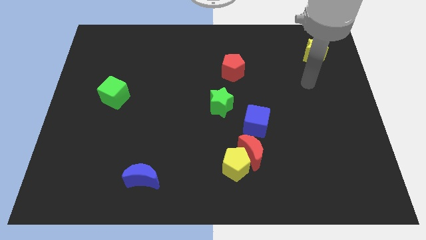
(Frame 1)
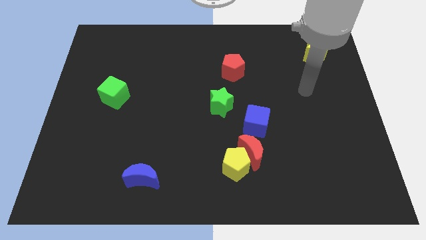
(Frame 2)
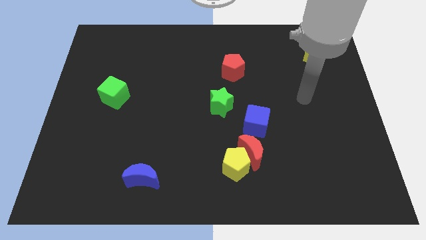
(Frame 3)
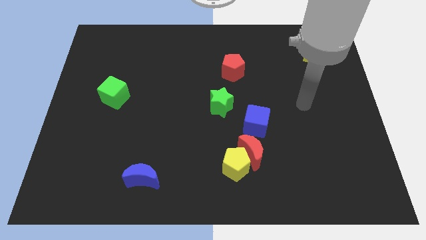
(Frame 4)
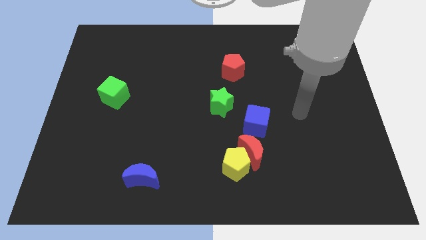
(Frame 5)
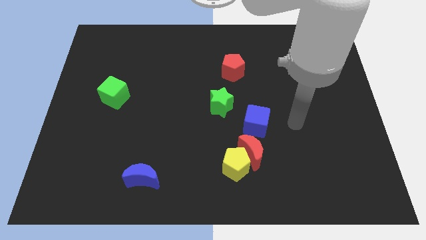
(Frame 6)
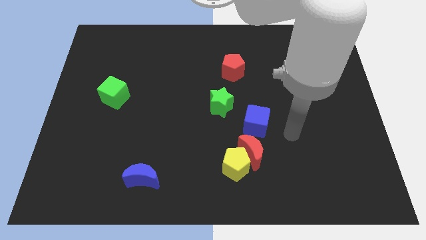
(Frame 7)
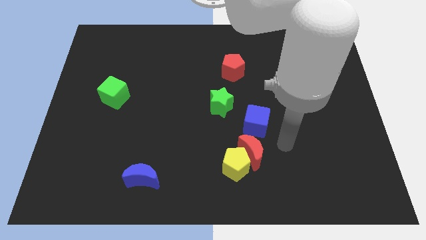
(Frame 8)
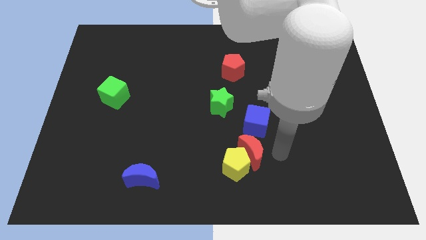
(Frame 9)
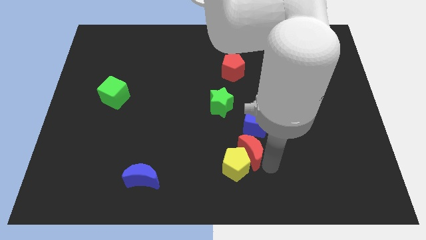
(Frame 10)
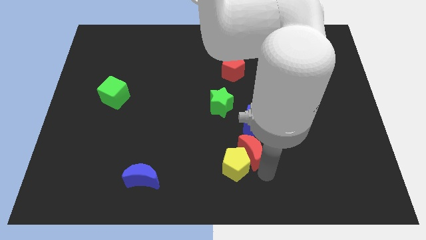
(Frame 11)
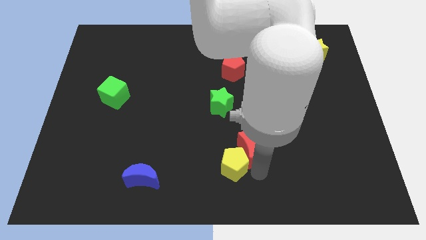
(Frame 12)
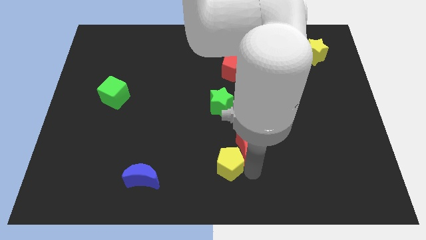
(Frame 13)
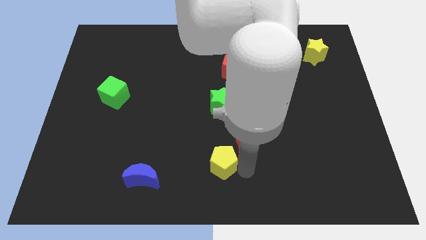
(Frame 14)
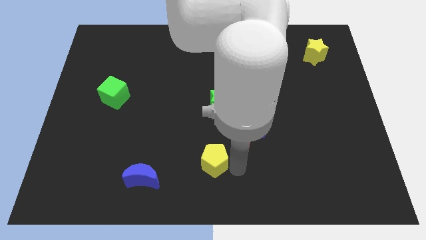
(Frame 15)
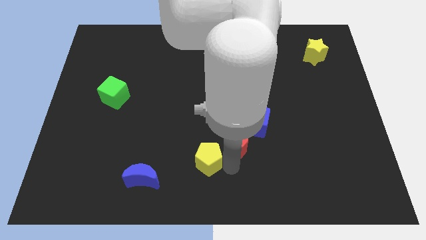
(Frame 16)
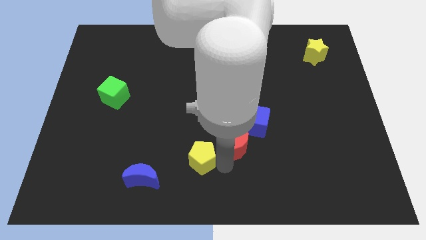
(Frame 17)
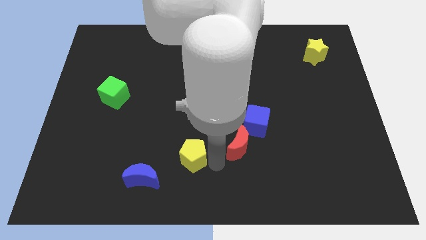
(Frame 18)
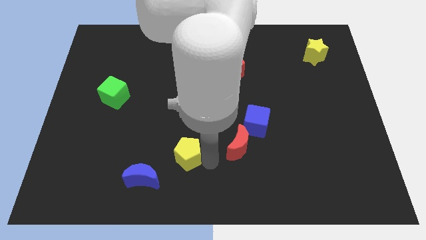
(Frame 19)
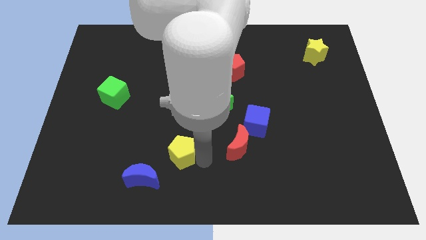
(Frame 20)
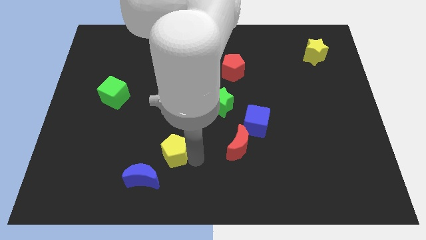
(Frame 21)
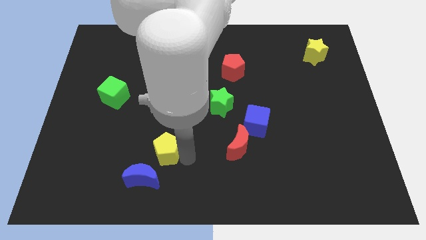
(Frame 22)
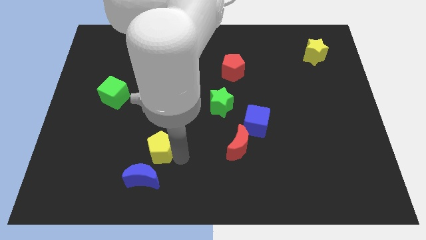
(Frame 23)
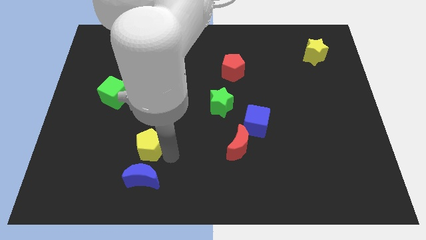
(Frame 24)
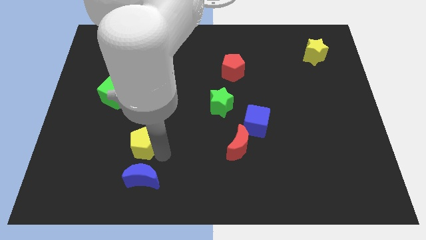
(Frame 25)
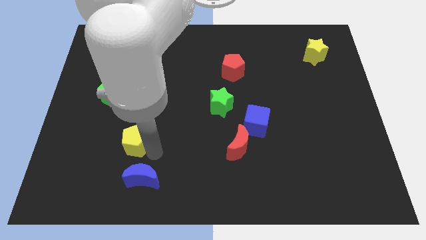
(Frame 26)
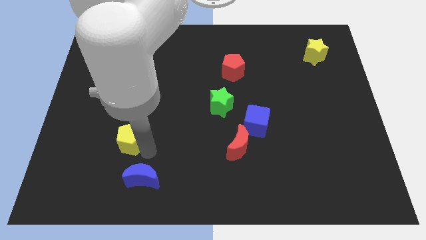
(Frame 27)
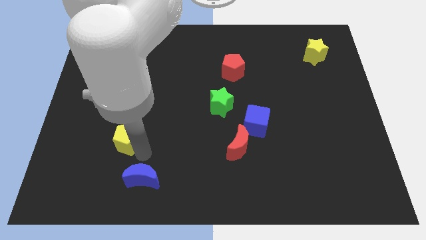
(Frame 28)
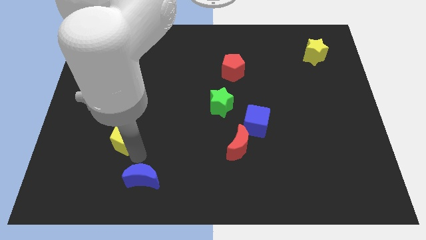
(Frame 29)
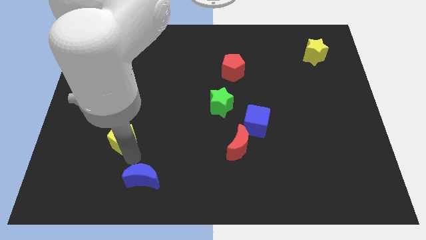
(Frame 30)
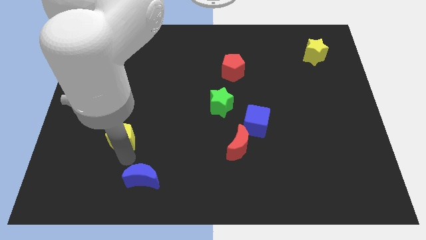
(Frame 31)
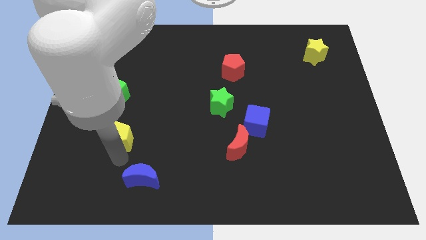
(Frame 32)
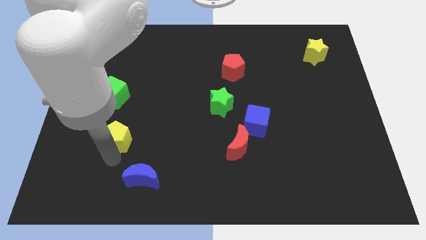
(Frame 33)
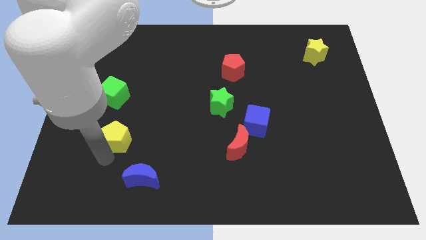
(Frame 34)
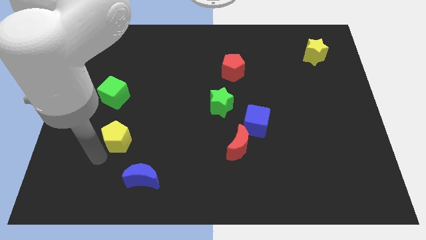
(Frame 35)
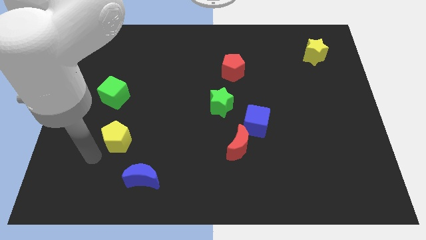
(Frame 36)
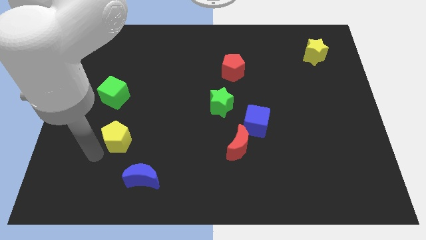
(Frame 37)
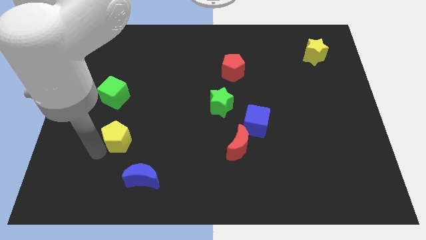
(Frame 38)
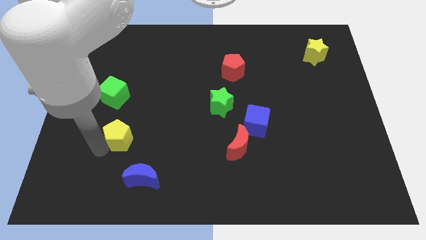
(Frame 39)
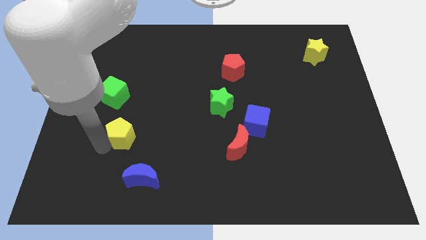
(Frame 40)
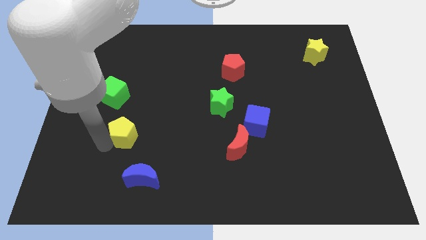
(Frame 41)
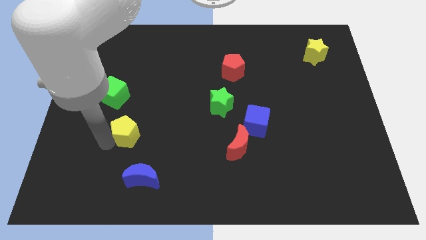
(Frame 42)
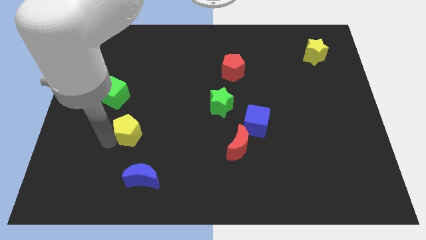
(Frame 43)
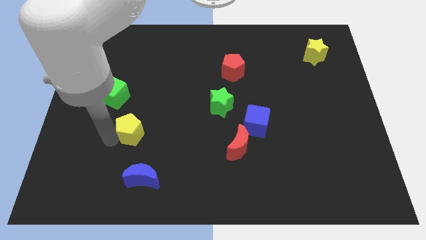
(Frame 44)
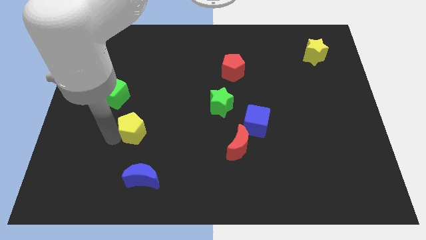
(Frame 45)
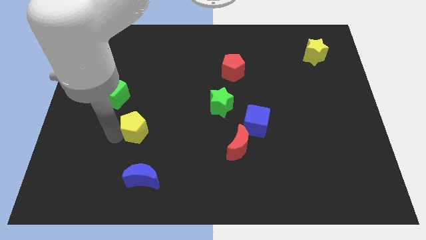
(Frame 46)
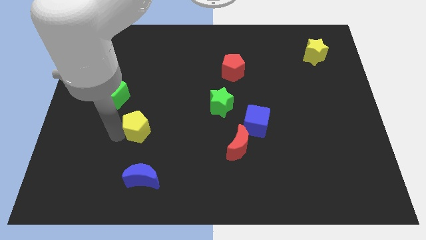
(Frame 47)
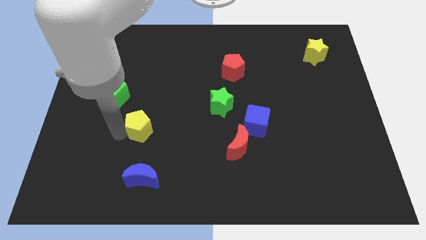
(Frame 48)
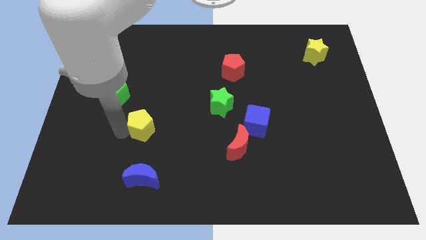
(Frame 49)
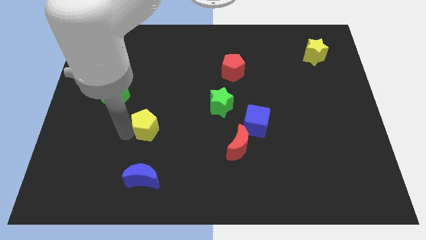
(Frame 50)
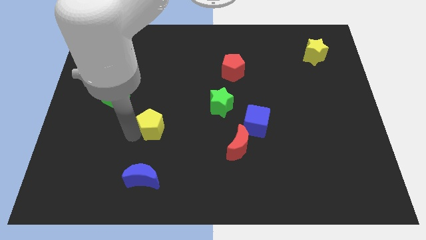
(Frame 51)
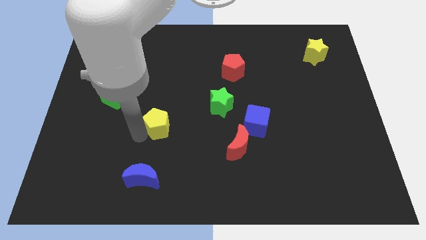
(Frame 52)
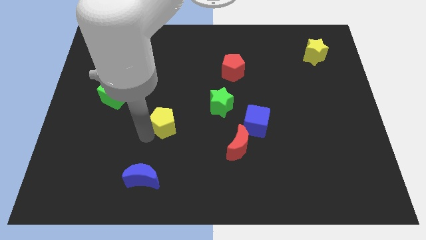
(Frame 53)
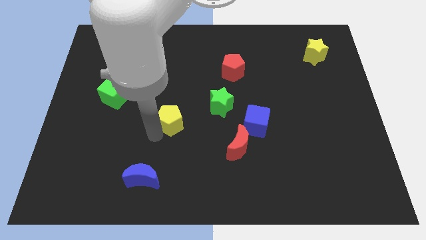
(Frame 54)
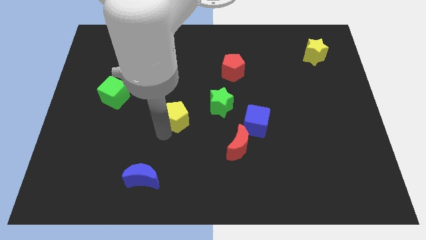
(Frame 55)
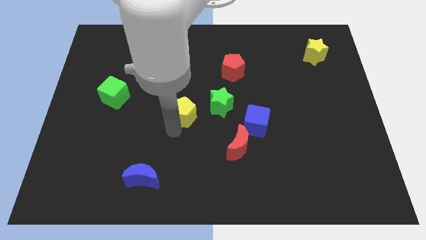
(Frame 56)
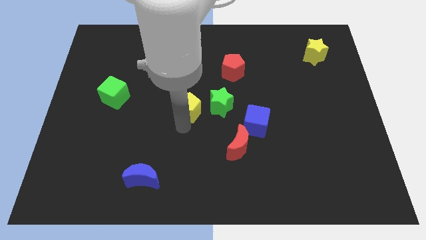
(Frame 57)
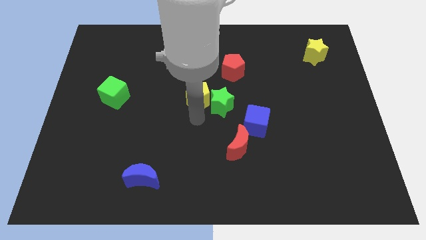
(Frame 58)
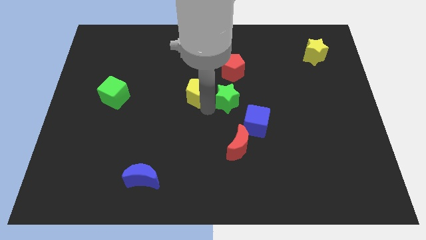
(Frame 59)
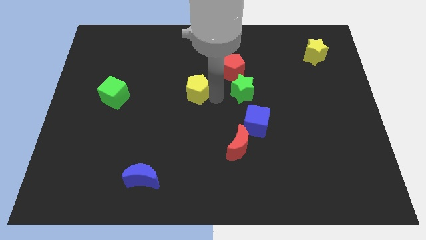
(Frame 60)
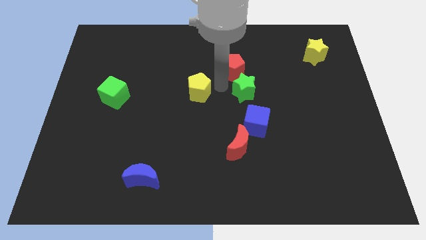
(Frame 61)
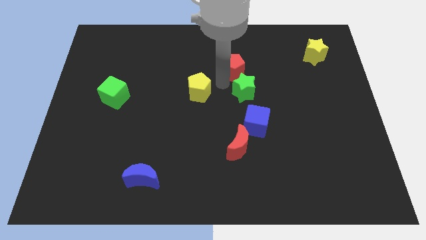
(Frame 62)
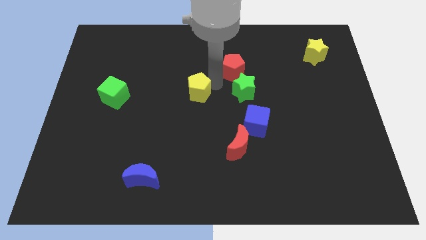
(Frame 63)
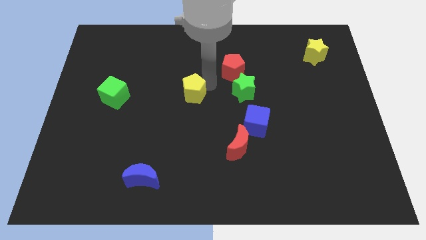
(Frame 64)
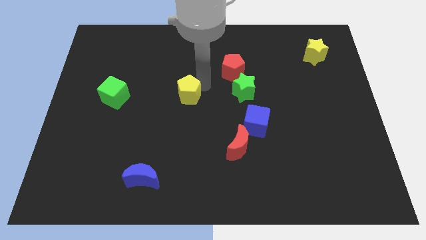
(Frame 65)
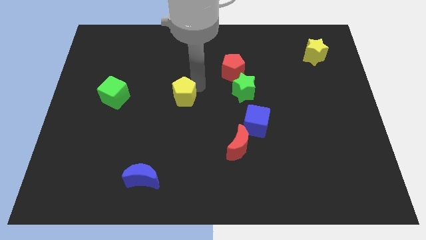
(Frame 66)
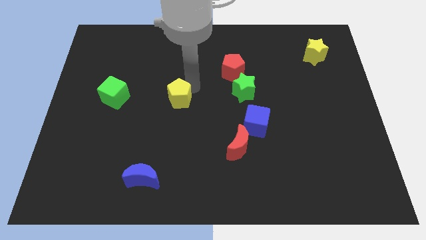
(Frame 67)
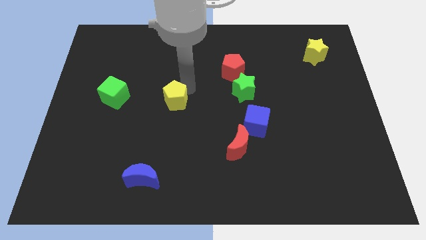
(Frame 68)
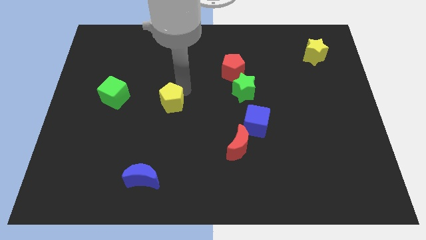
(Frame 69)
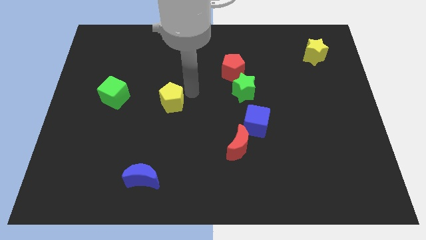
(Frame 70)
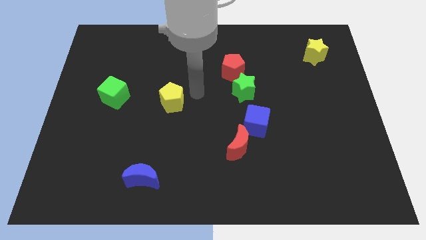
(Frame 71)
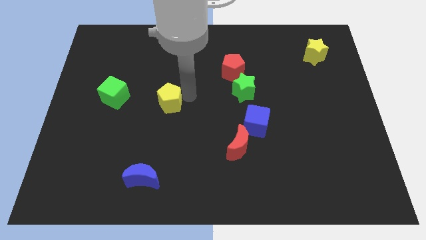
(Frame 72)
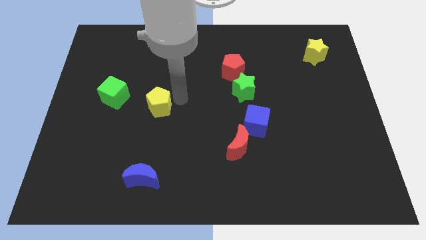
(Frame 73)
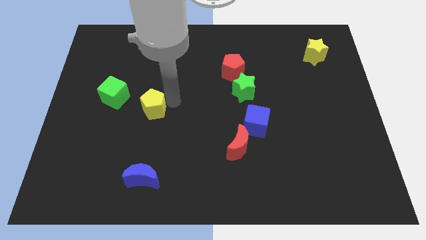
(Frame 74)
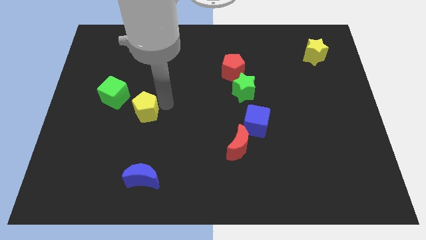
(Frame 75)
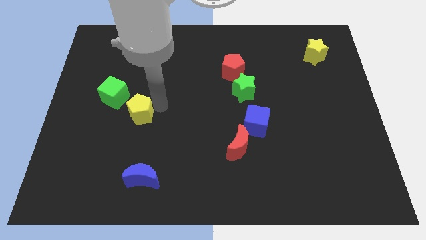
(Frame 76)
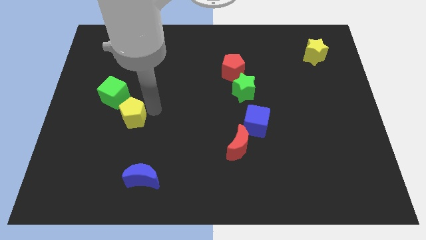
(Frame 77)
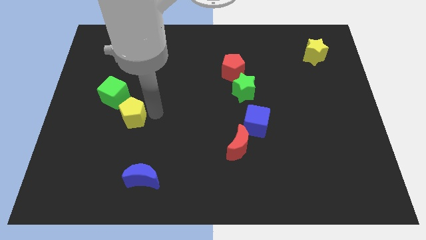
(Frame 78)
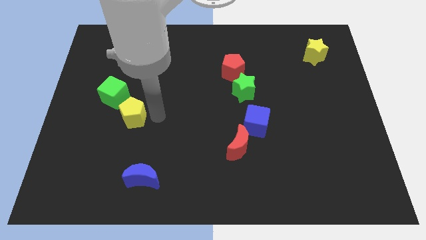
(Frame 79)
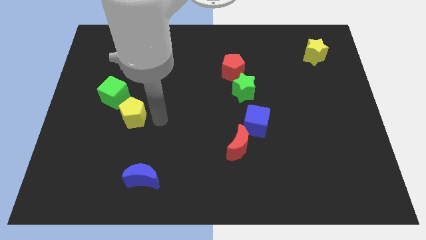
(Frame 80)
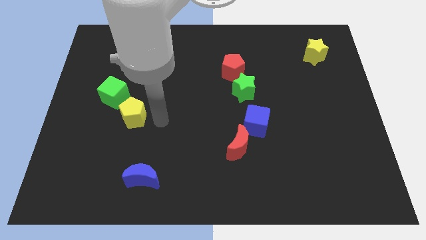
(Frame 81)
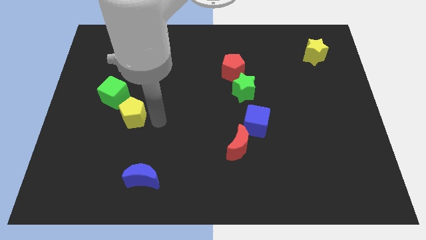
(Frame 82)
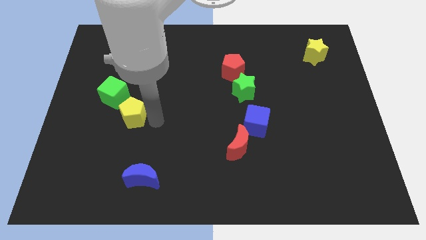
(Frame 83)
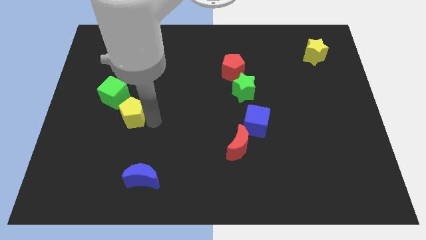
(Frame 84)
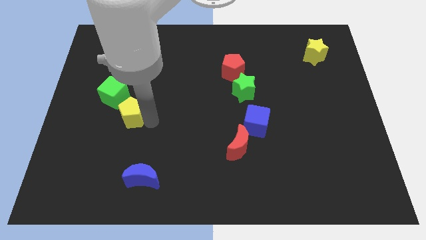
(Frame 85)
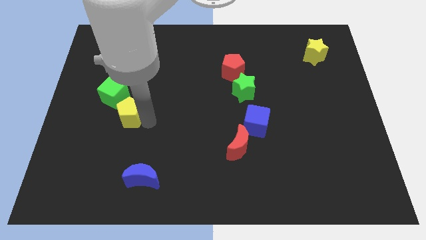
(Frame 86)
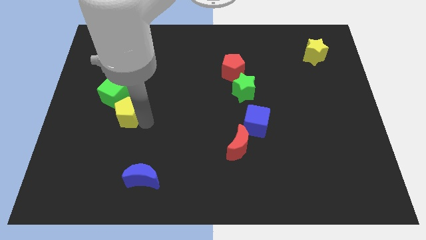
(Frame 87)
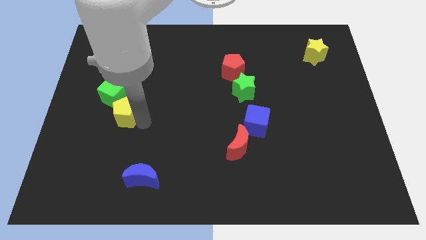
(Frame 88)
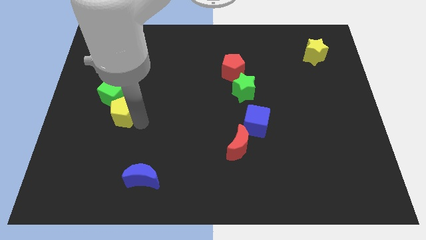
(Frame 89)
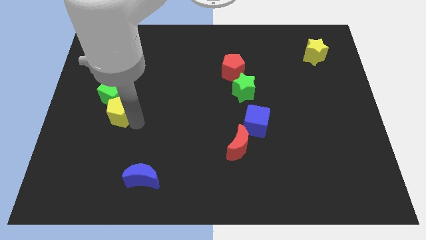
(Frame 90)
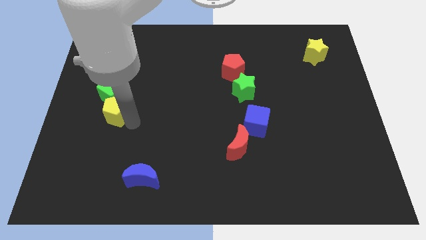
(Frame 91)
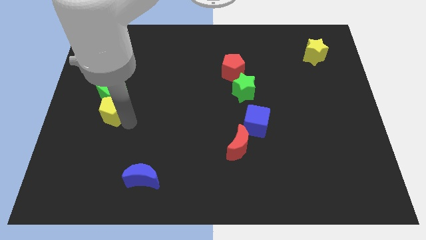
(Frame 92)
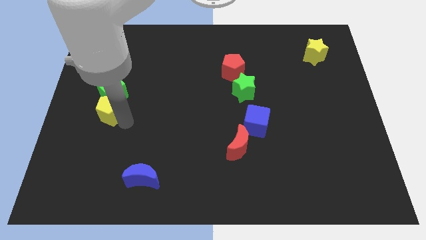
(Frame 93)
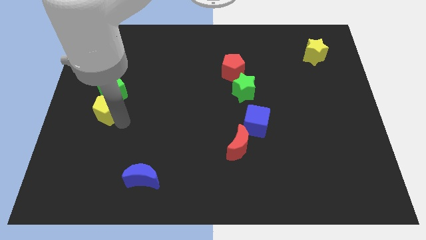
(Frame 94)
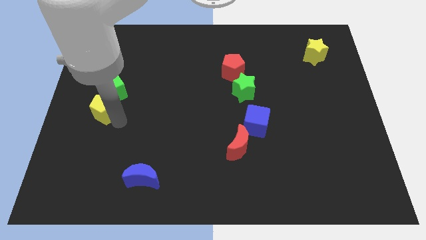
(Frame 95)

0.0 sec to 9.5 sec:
push the yellow pentagon to the center left
